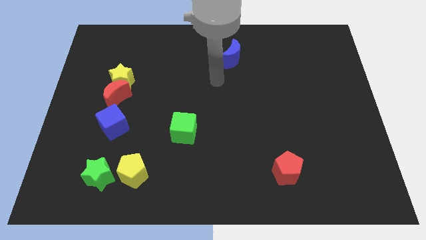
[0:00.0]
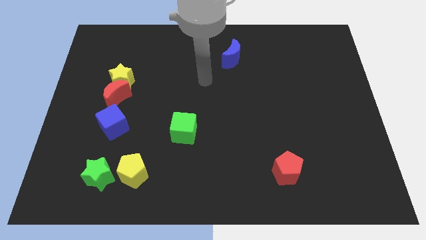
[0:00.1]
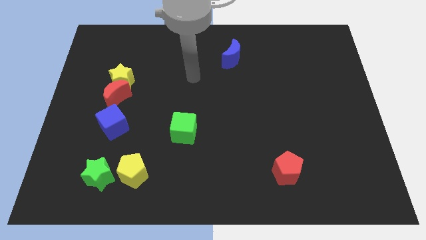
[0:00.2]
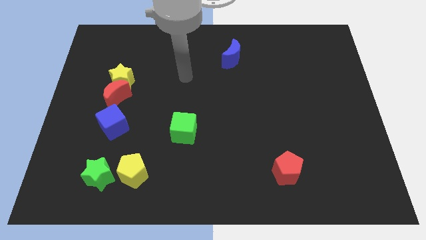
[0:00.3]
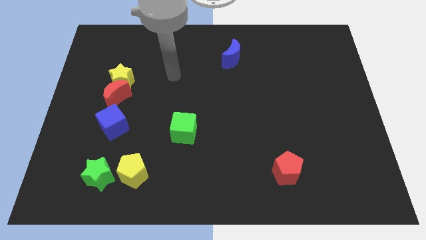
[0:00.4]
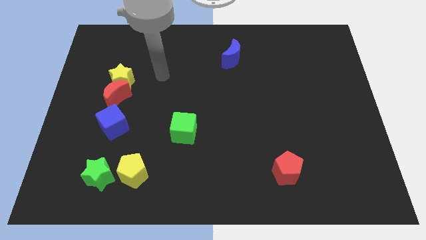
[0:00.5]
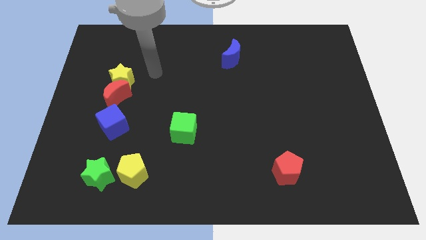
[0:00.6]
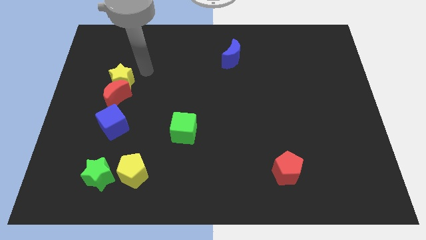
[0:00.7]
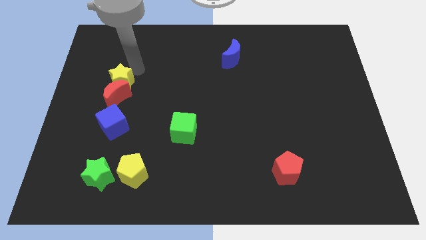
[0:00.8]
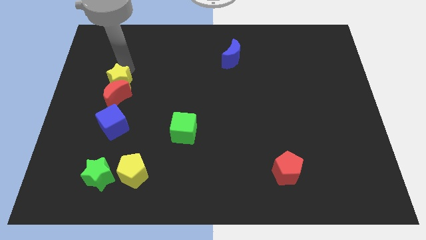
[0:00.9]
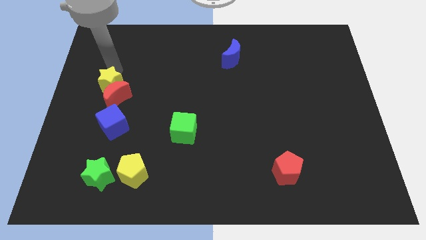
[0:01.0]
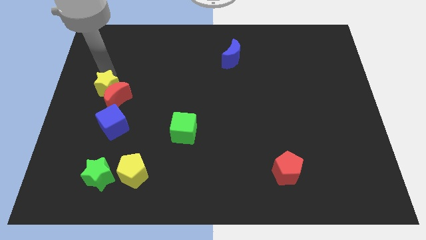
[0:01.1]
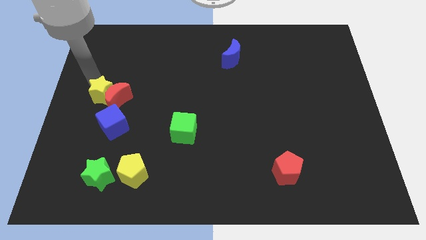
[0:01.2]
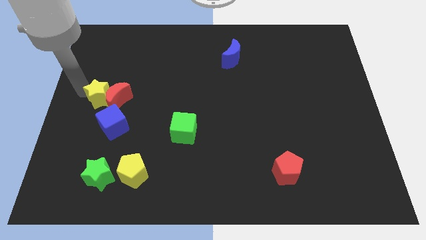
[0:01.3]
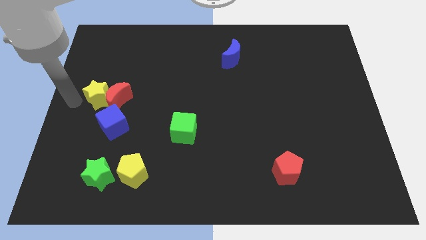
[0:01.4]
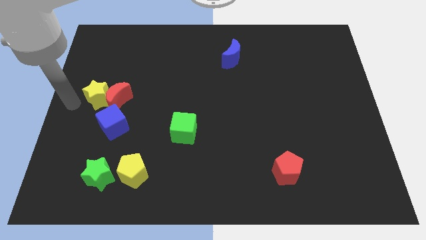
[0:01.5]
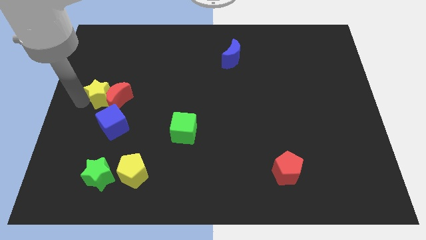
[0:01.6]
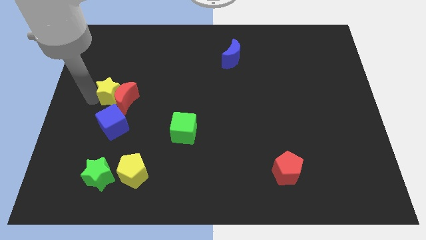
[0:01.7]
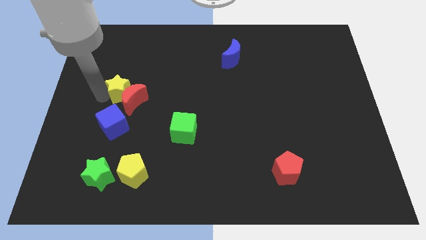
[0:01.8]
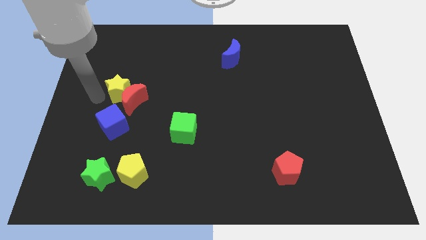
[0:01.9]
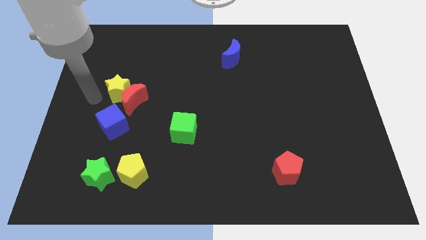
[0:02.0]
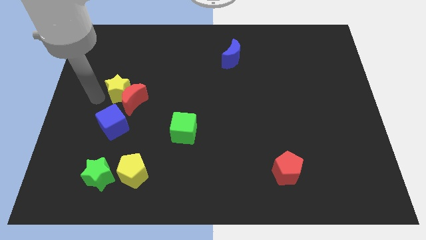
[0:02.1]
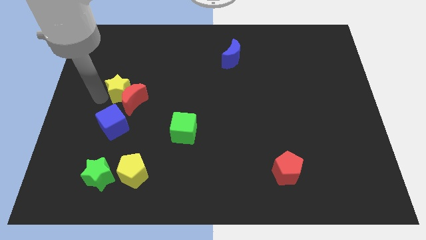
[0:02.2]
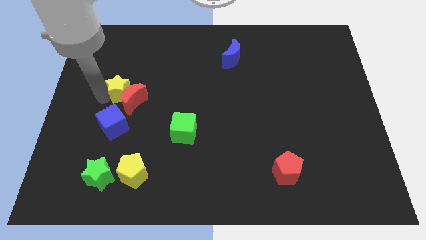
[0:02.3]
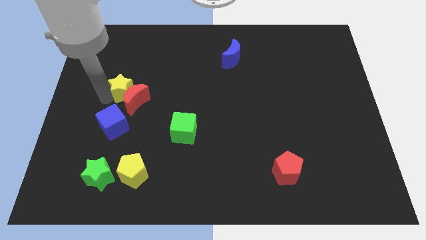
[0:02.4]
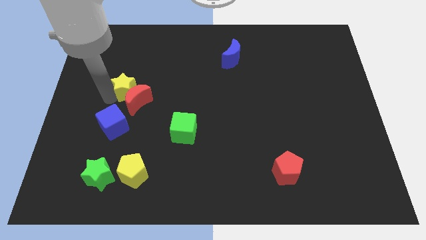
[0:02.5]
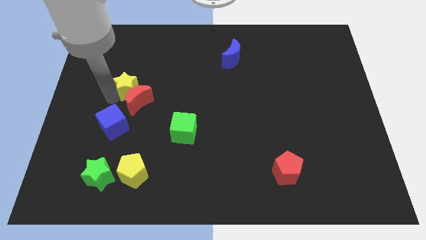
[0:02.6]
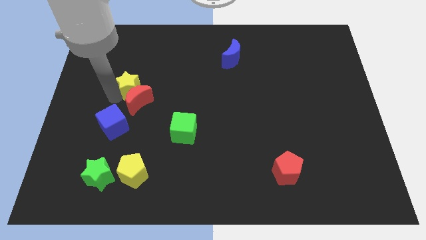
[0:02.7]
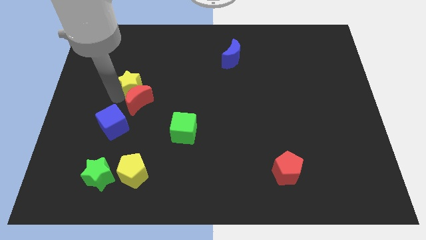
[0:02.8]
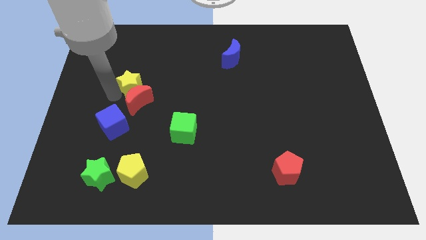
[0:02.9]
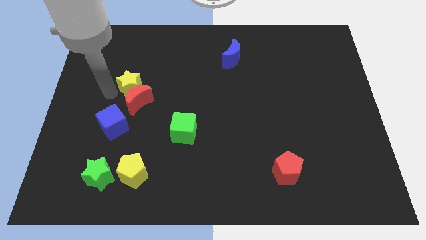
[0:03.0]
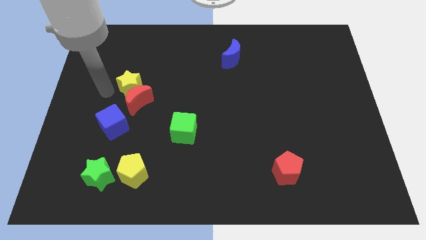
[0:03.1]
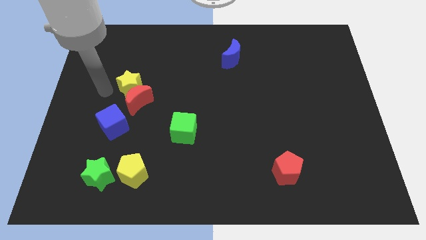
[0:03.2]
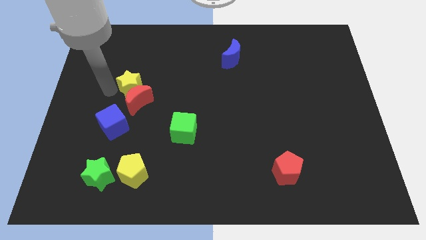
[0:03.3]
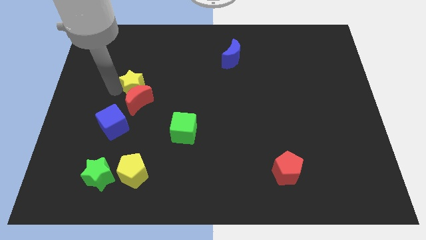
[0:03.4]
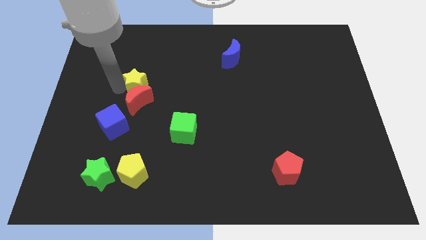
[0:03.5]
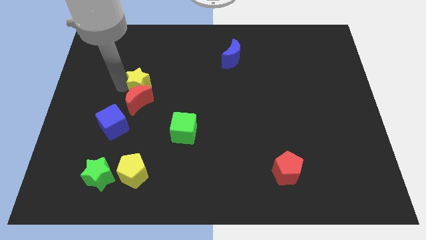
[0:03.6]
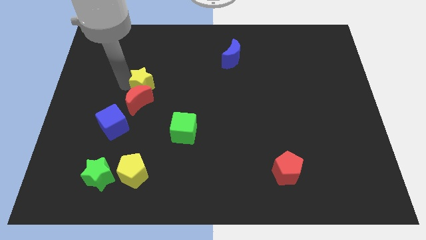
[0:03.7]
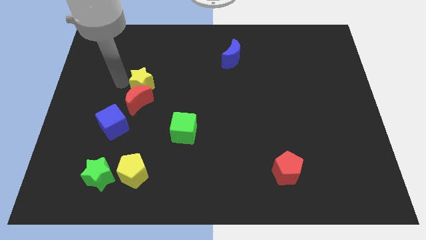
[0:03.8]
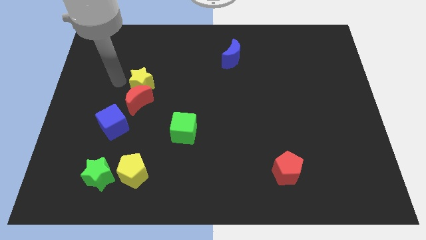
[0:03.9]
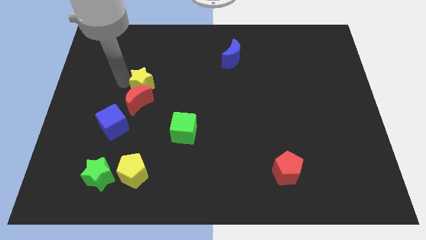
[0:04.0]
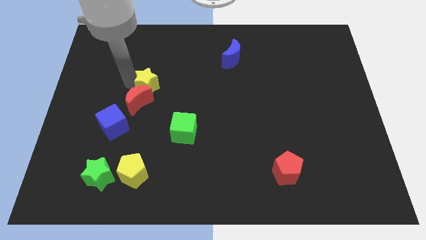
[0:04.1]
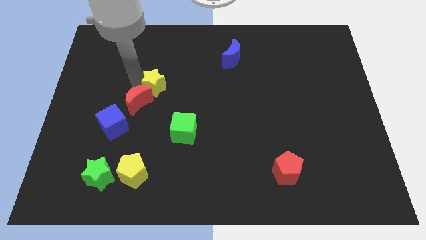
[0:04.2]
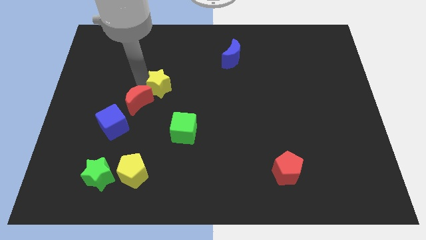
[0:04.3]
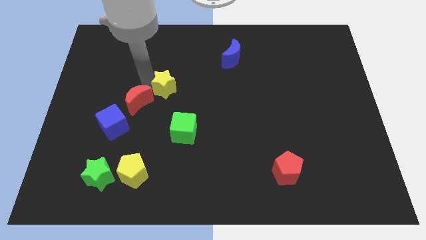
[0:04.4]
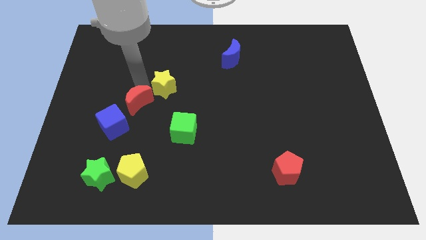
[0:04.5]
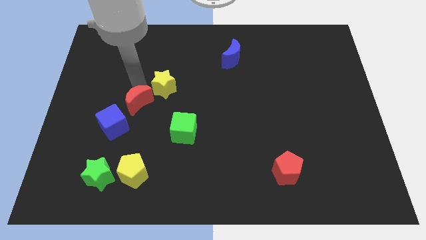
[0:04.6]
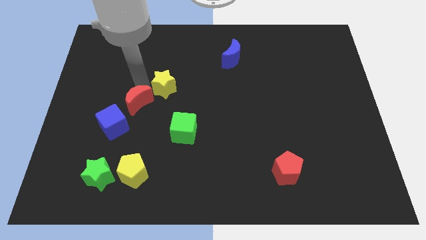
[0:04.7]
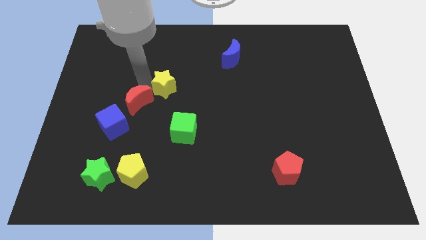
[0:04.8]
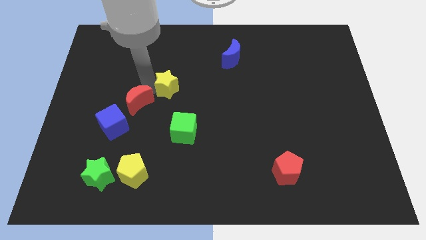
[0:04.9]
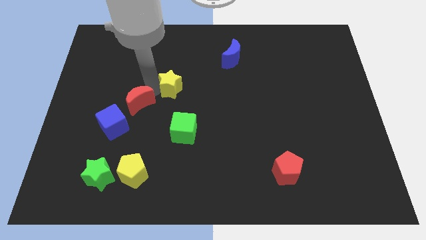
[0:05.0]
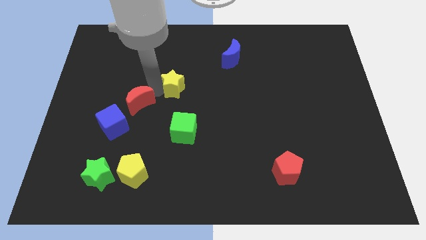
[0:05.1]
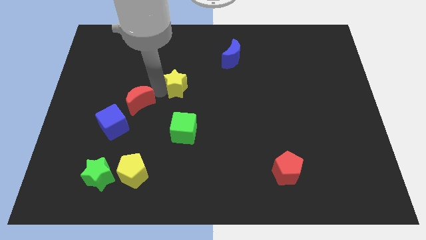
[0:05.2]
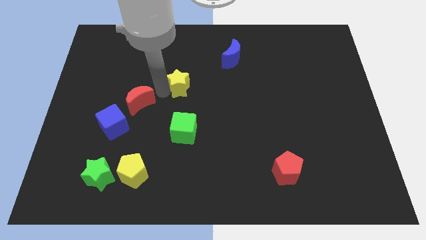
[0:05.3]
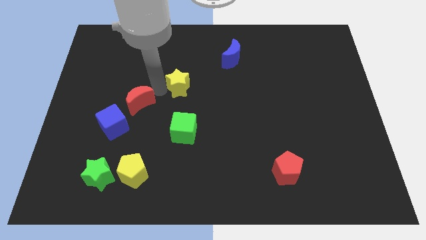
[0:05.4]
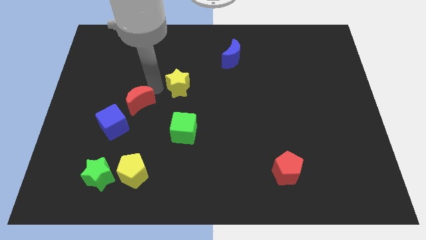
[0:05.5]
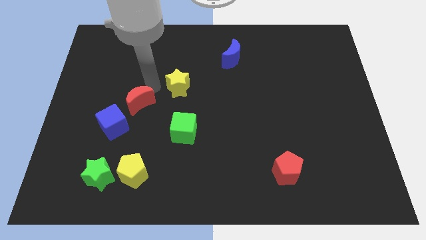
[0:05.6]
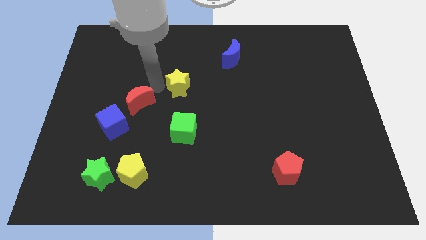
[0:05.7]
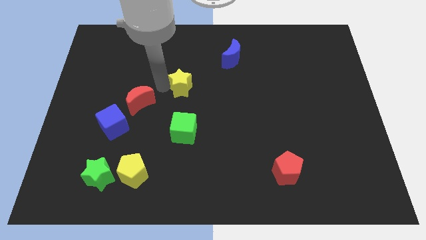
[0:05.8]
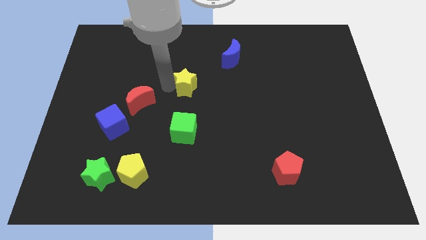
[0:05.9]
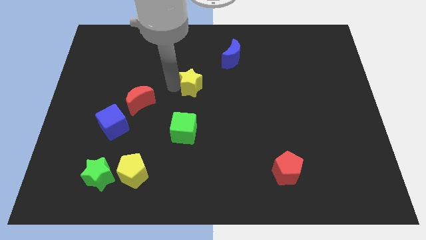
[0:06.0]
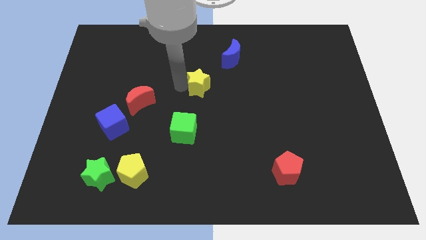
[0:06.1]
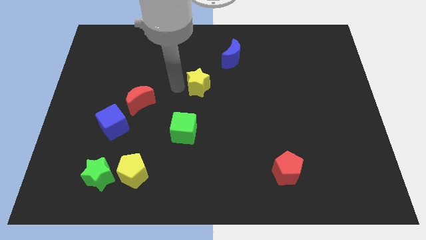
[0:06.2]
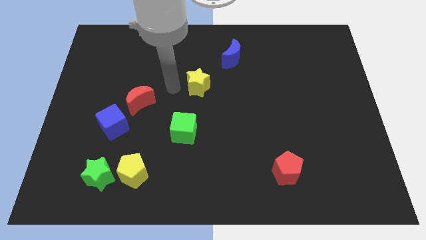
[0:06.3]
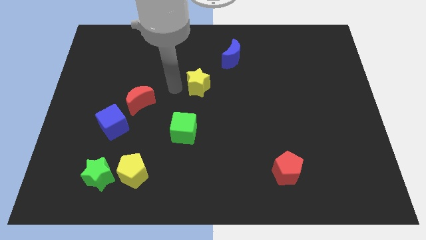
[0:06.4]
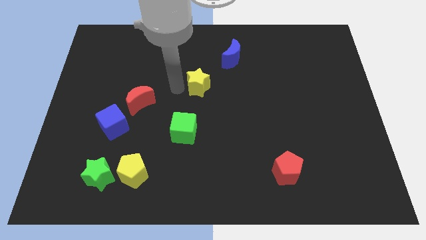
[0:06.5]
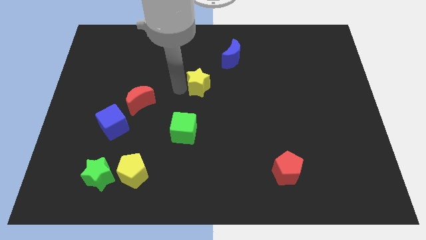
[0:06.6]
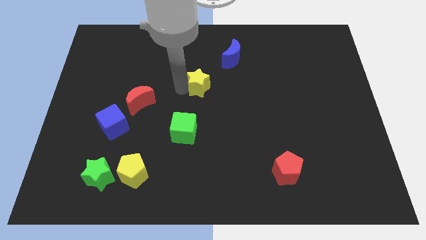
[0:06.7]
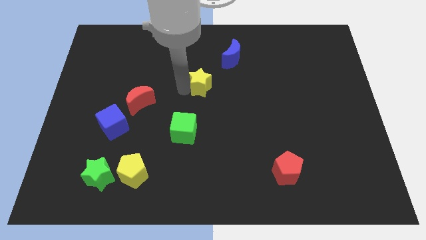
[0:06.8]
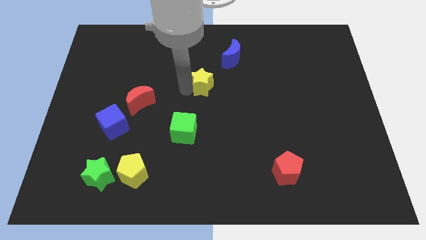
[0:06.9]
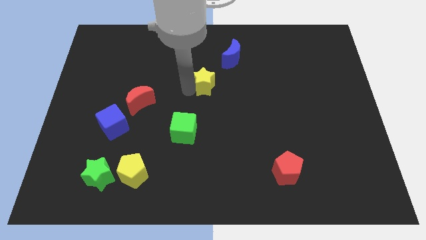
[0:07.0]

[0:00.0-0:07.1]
push the yellow star right

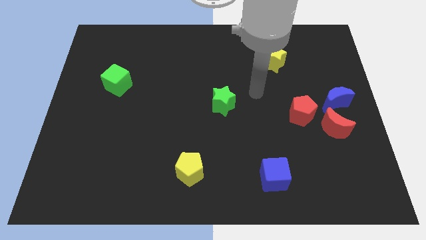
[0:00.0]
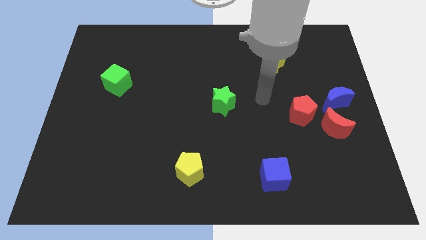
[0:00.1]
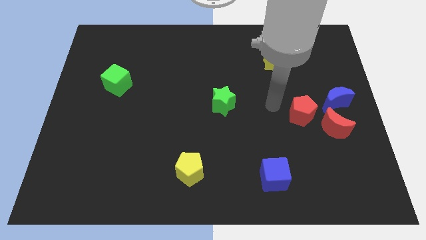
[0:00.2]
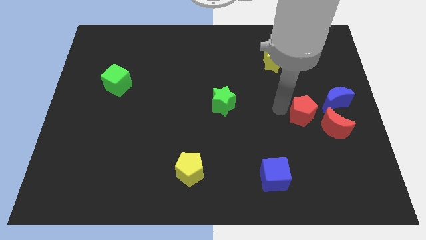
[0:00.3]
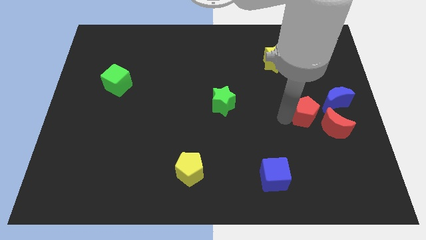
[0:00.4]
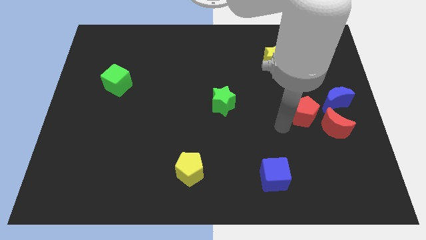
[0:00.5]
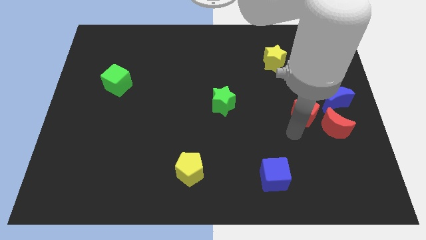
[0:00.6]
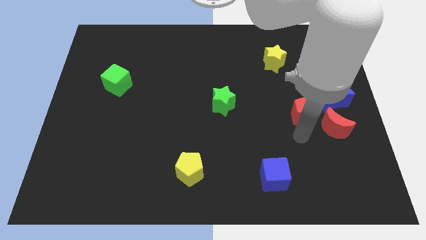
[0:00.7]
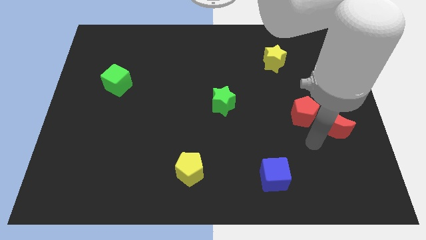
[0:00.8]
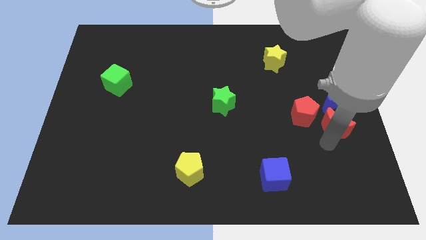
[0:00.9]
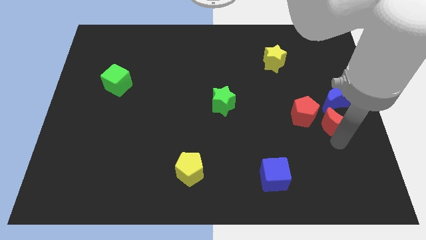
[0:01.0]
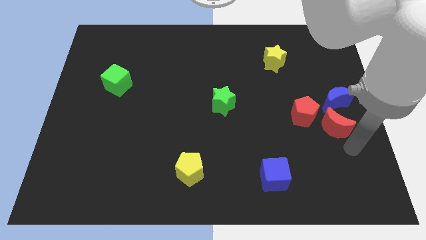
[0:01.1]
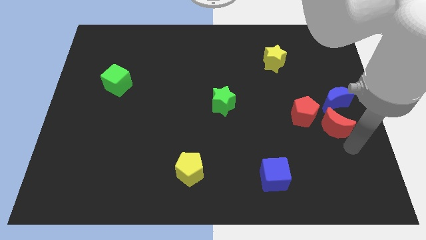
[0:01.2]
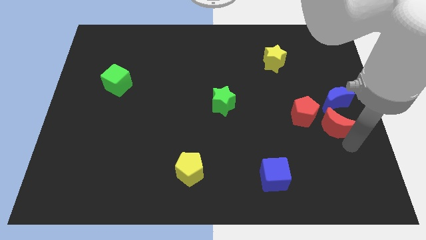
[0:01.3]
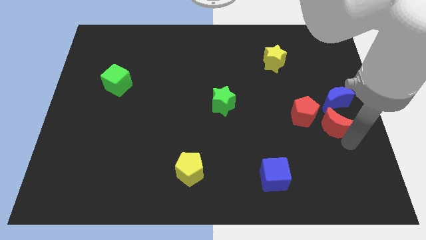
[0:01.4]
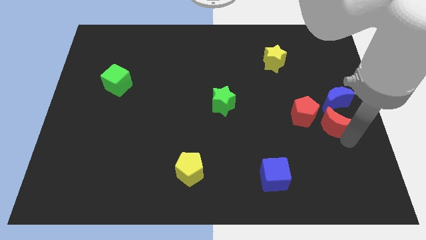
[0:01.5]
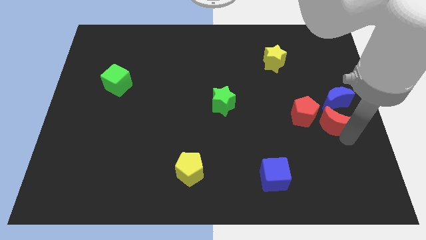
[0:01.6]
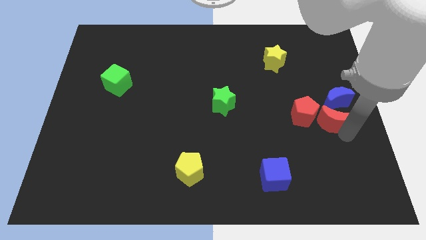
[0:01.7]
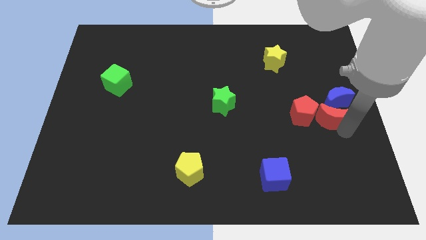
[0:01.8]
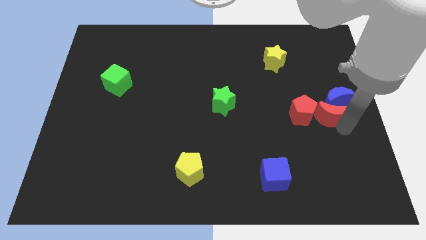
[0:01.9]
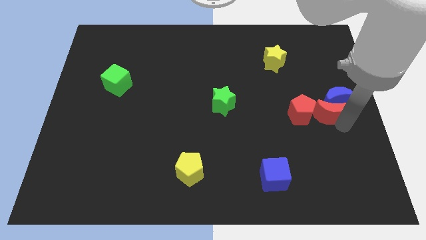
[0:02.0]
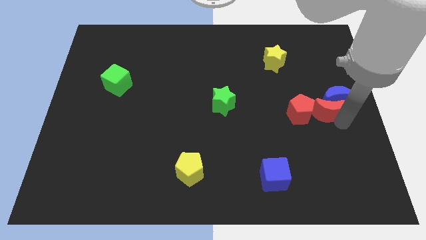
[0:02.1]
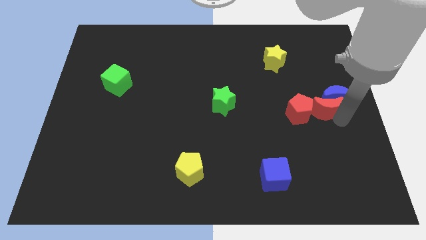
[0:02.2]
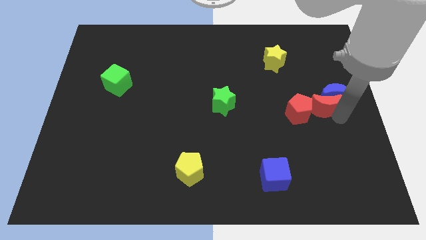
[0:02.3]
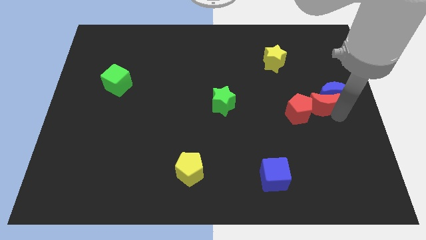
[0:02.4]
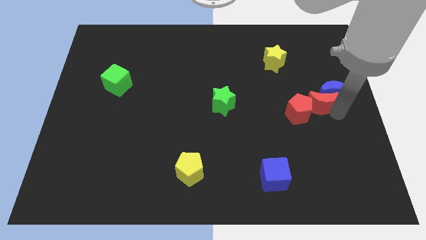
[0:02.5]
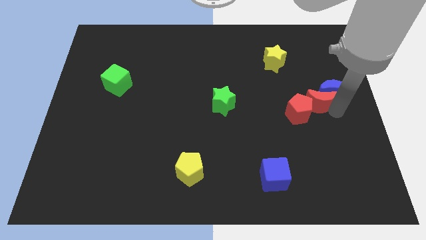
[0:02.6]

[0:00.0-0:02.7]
move the red moon up a bit
